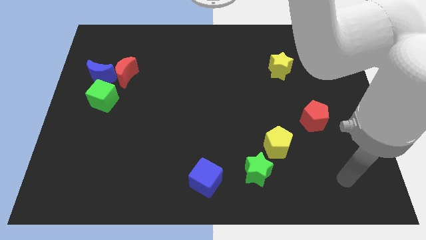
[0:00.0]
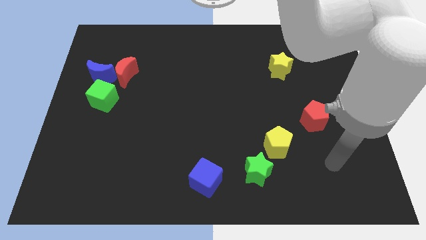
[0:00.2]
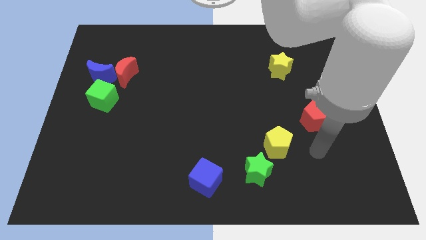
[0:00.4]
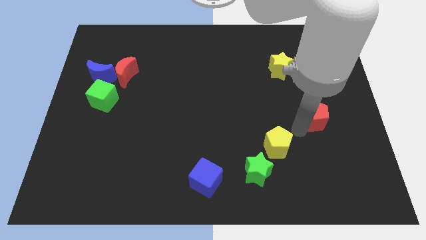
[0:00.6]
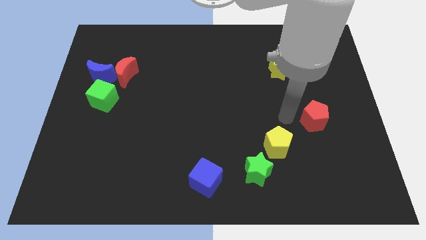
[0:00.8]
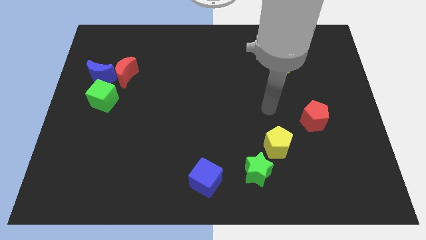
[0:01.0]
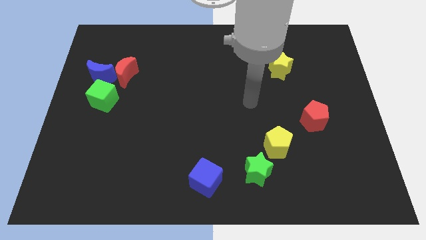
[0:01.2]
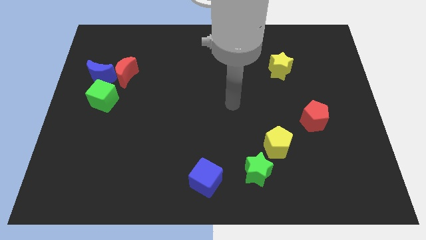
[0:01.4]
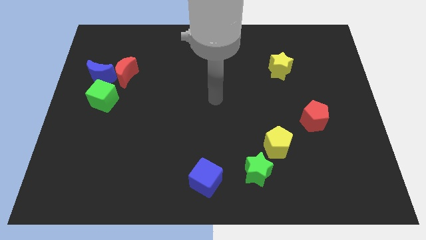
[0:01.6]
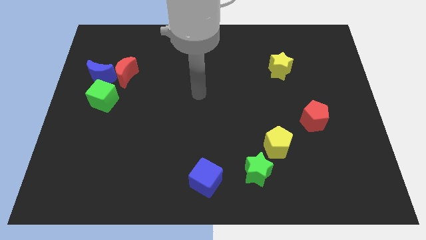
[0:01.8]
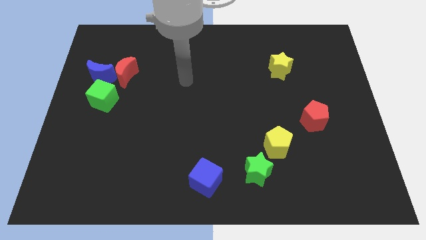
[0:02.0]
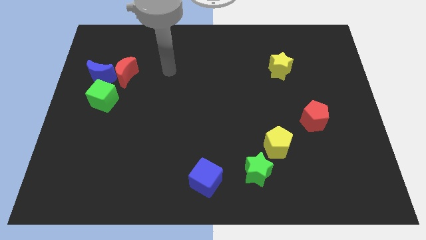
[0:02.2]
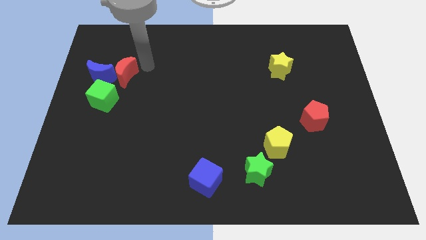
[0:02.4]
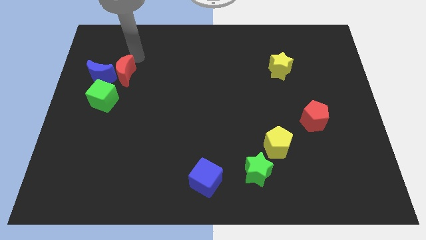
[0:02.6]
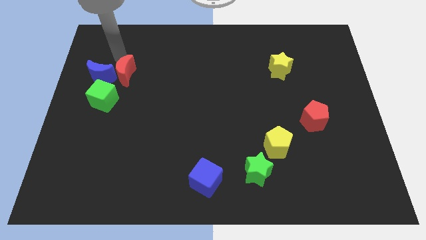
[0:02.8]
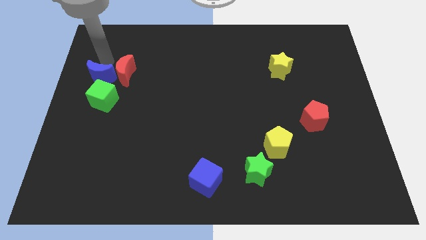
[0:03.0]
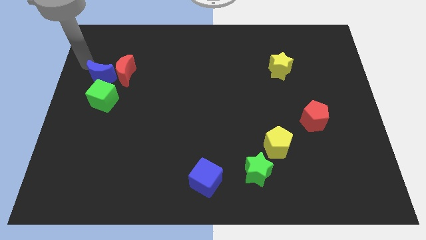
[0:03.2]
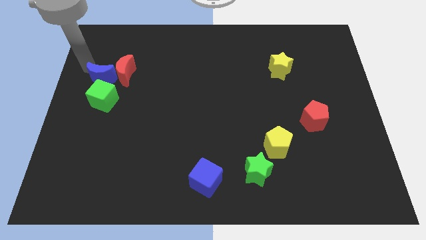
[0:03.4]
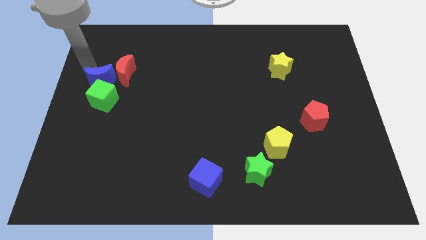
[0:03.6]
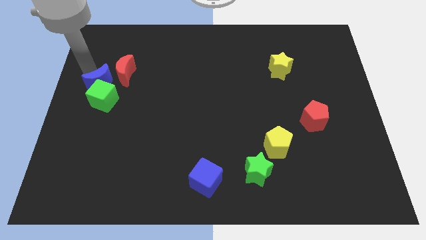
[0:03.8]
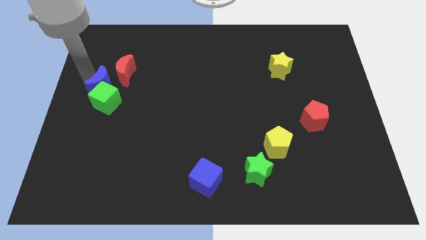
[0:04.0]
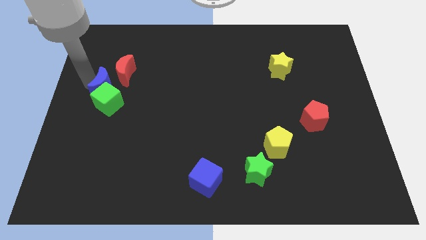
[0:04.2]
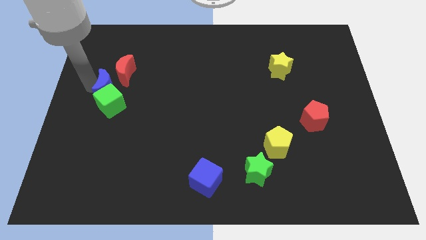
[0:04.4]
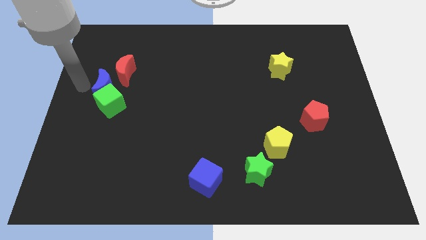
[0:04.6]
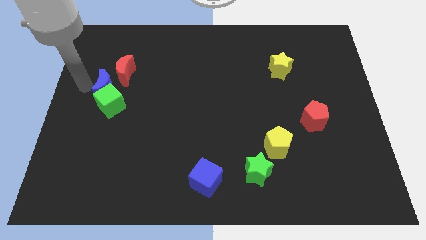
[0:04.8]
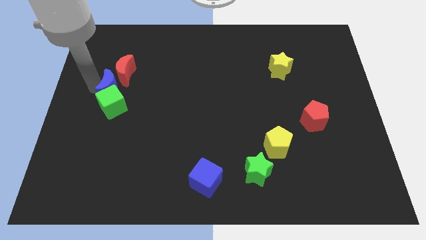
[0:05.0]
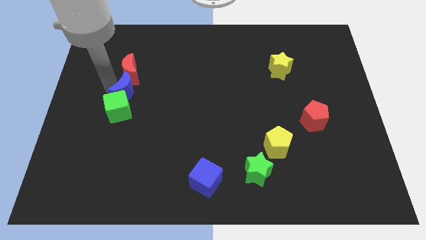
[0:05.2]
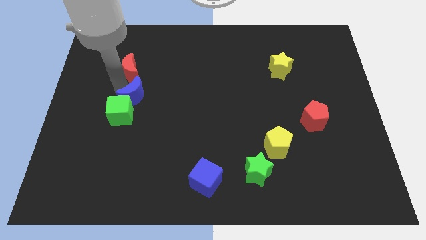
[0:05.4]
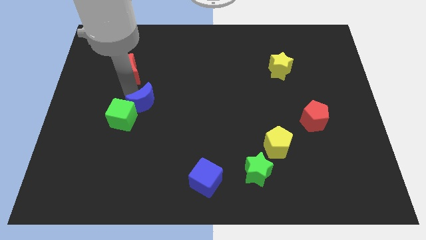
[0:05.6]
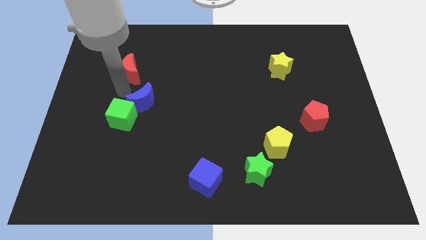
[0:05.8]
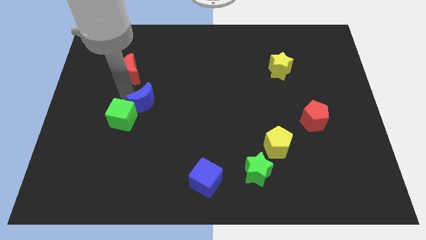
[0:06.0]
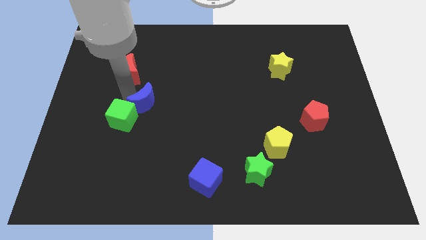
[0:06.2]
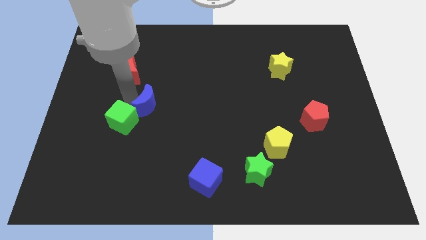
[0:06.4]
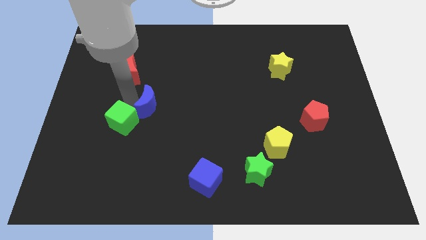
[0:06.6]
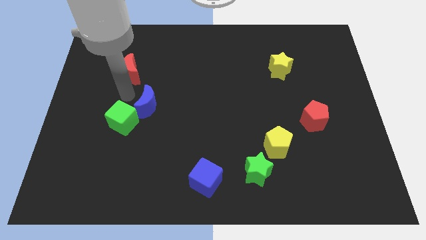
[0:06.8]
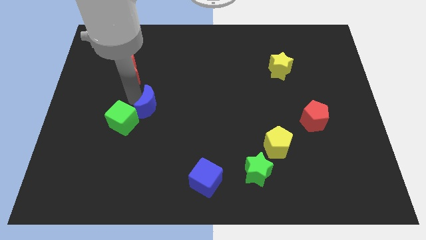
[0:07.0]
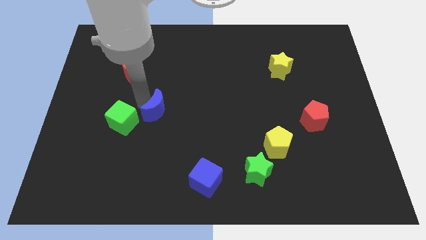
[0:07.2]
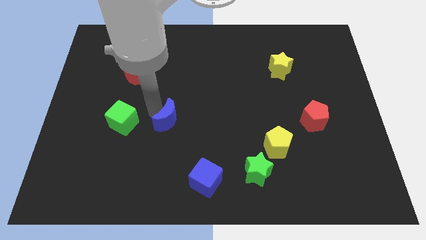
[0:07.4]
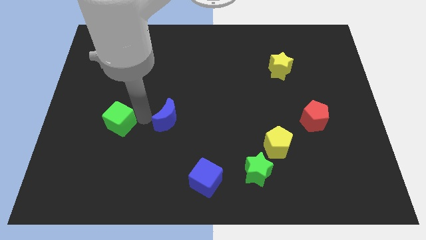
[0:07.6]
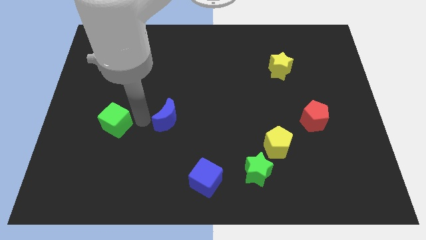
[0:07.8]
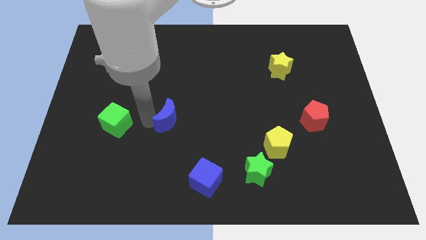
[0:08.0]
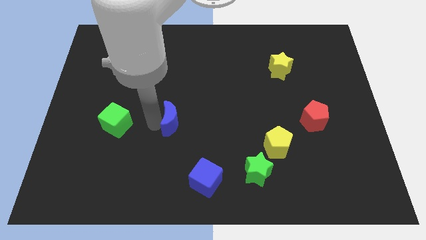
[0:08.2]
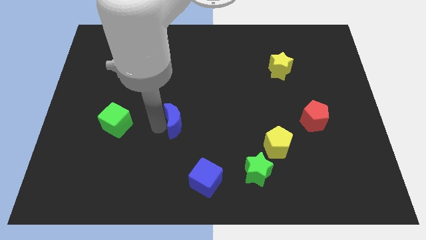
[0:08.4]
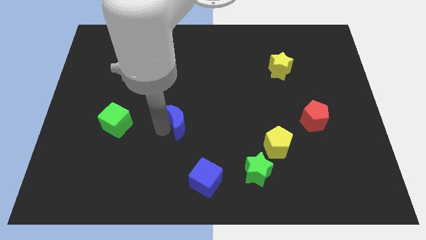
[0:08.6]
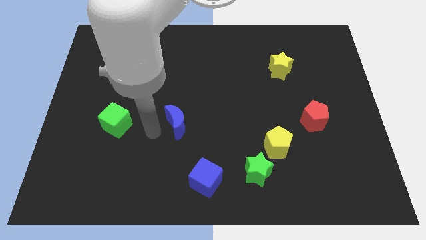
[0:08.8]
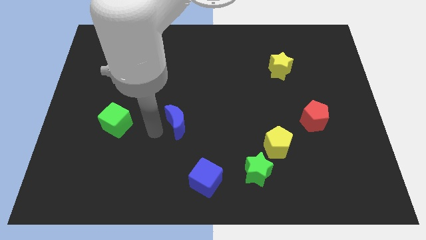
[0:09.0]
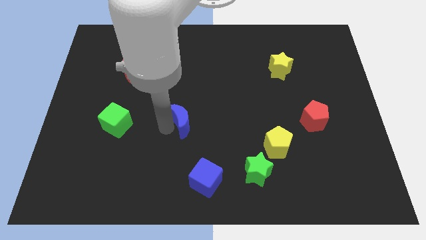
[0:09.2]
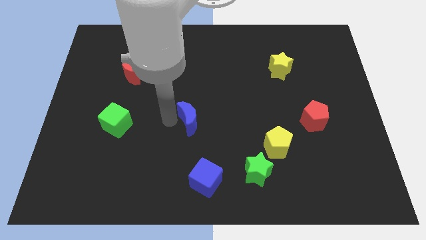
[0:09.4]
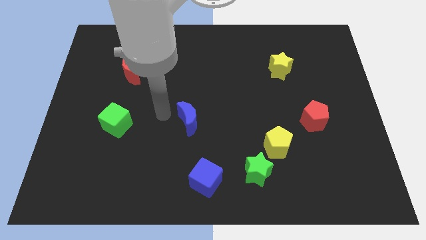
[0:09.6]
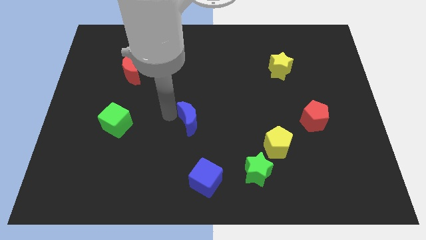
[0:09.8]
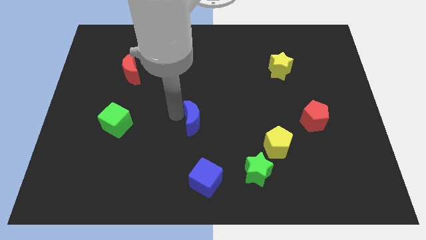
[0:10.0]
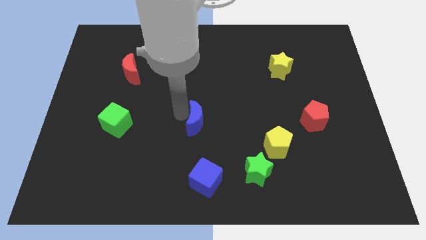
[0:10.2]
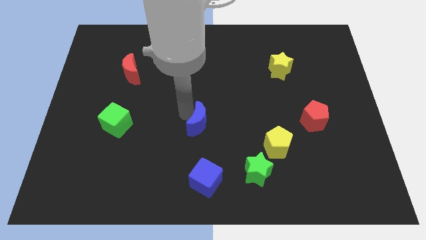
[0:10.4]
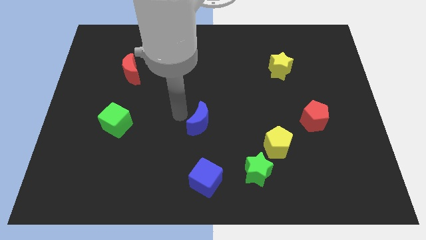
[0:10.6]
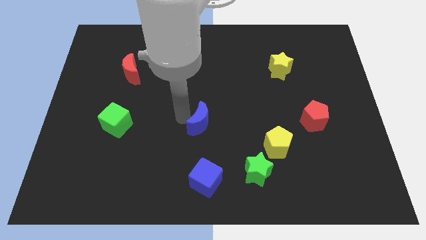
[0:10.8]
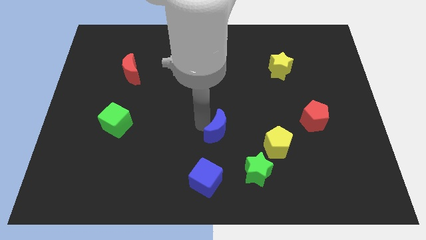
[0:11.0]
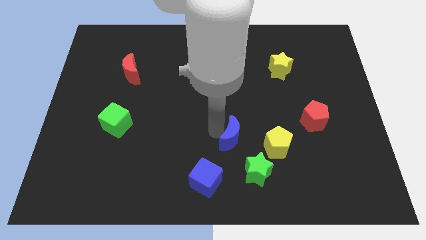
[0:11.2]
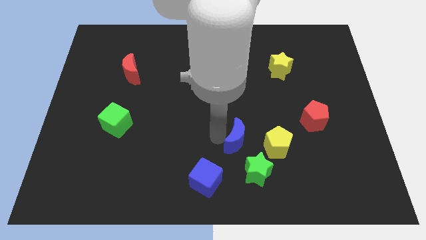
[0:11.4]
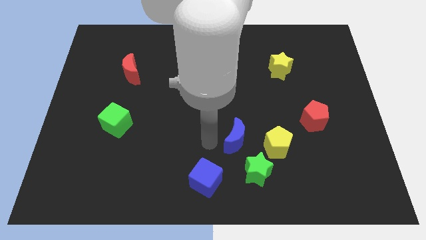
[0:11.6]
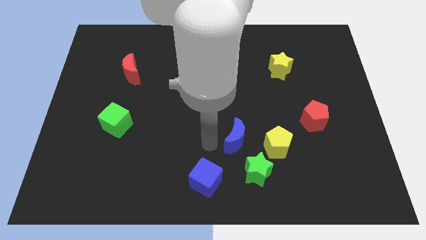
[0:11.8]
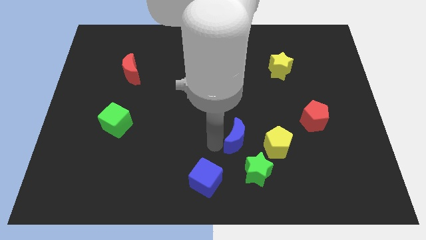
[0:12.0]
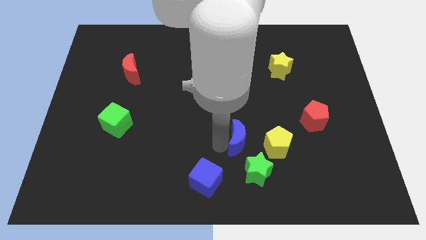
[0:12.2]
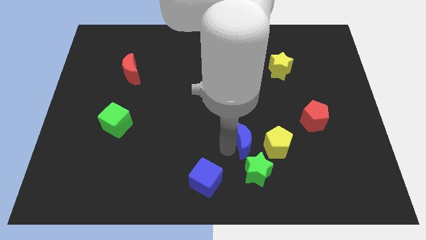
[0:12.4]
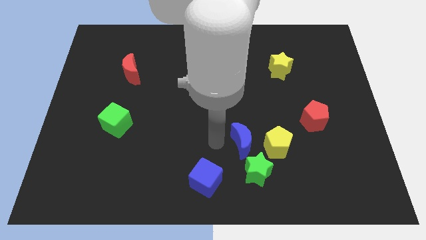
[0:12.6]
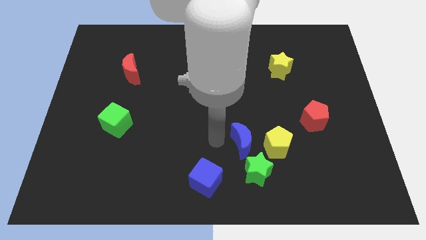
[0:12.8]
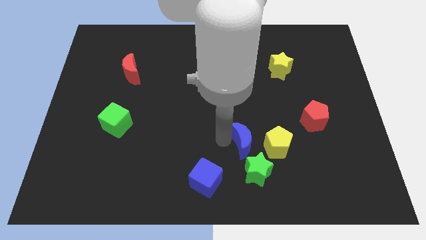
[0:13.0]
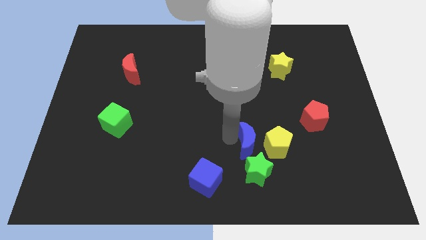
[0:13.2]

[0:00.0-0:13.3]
move the blue moon close to the yellow pentagon
